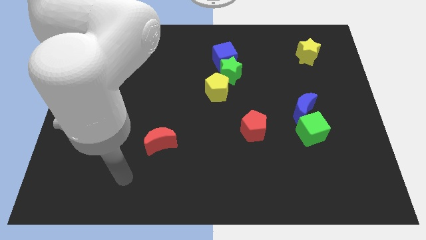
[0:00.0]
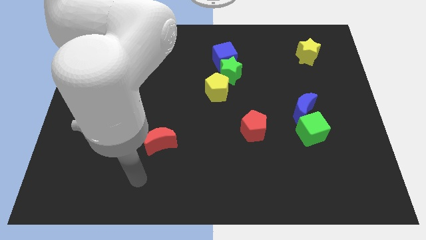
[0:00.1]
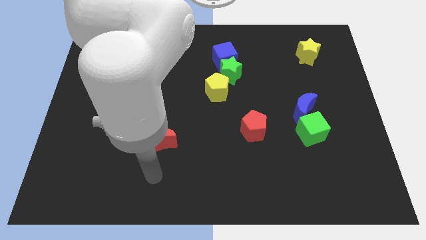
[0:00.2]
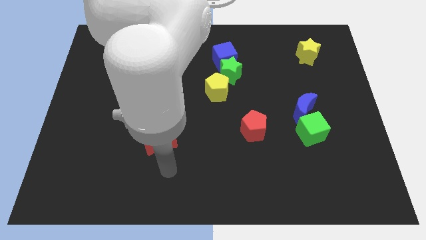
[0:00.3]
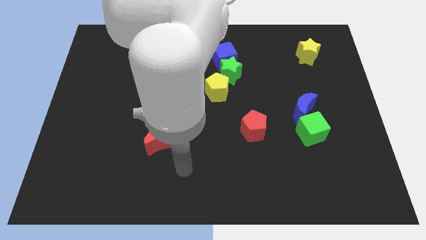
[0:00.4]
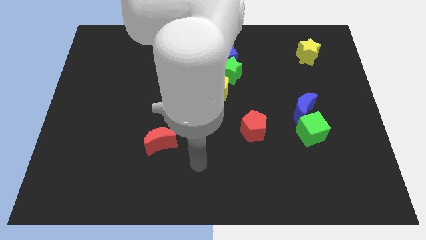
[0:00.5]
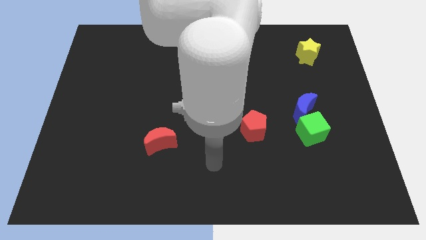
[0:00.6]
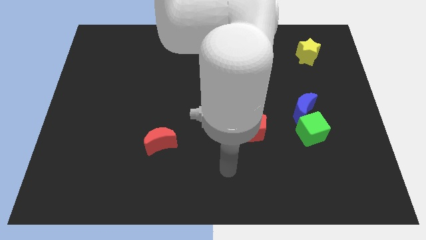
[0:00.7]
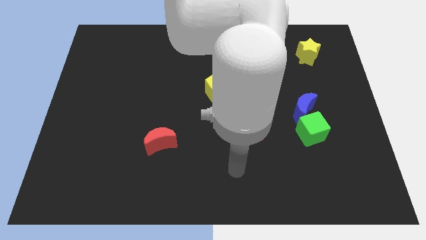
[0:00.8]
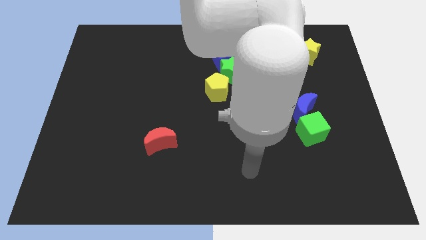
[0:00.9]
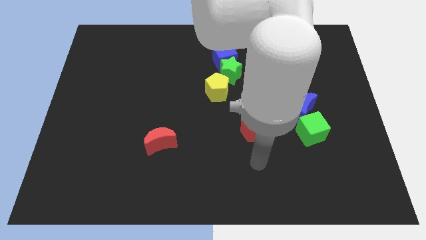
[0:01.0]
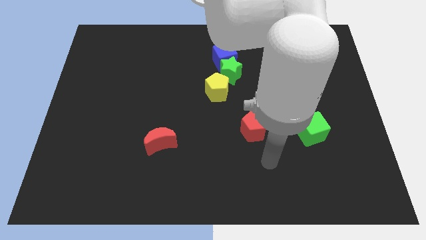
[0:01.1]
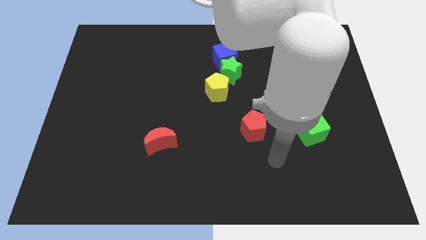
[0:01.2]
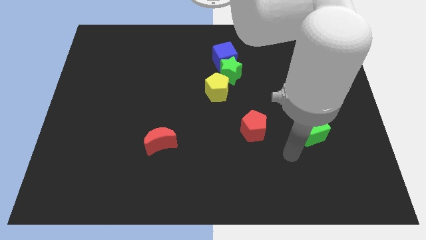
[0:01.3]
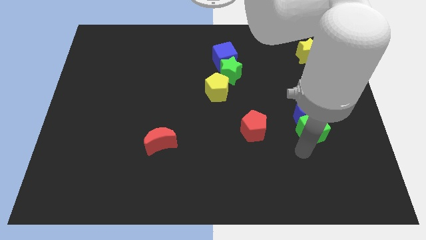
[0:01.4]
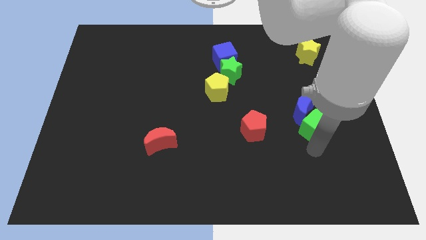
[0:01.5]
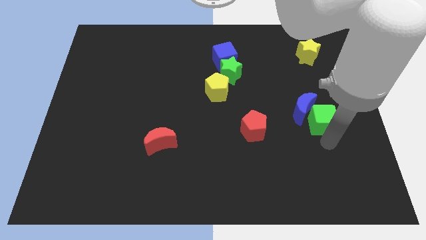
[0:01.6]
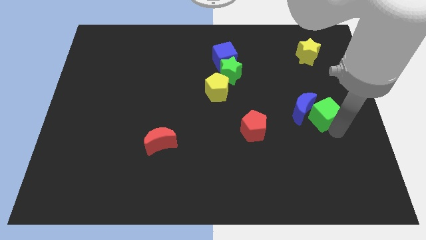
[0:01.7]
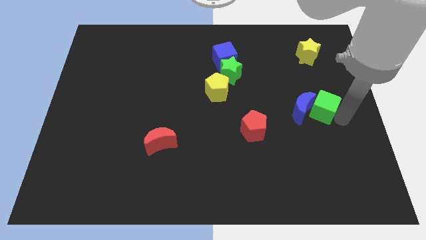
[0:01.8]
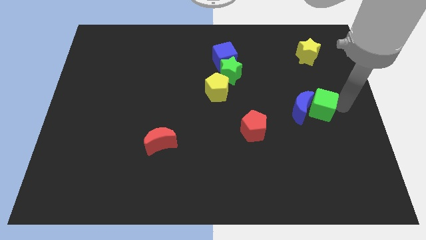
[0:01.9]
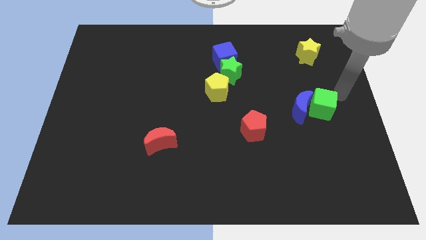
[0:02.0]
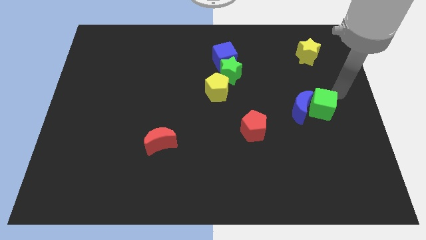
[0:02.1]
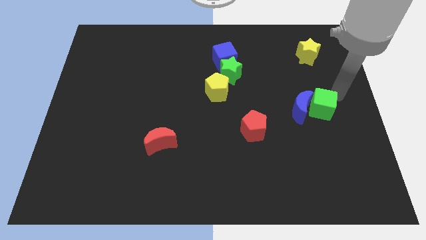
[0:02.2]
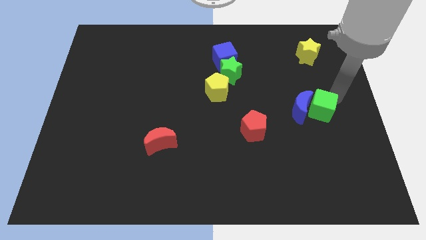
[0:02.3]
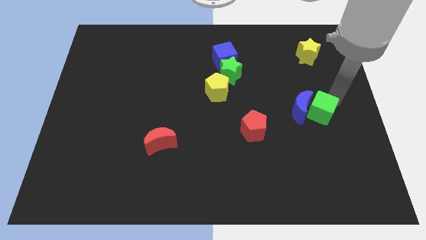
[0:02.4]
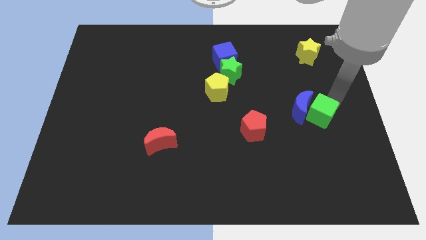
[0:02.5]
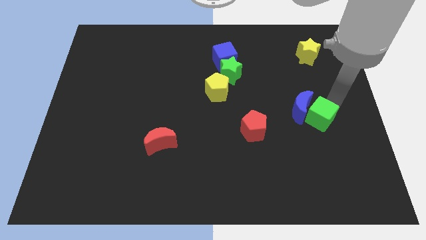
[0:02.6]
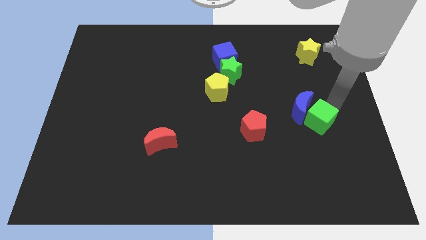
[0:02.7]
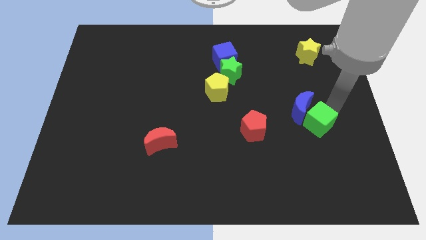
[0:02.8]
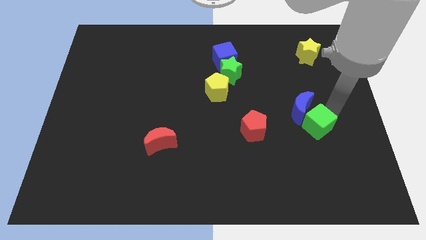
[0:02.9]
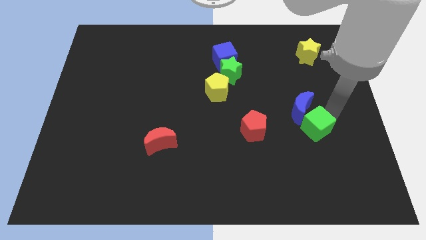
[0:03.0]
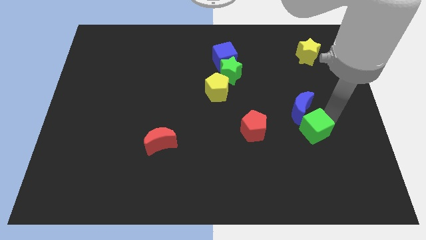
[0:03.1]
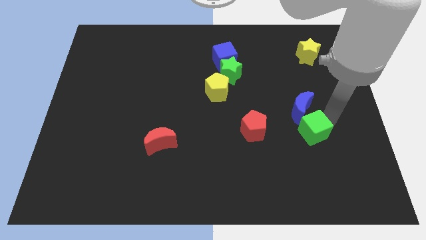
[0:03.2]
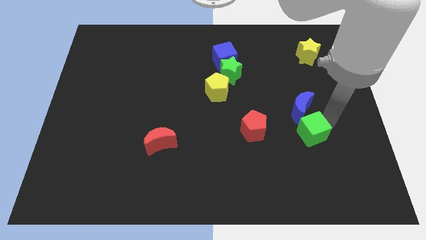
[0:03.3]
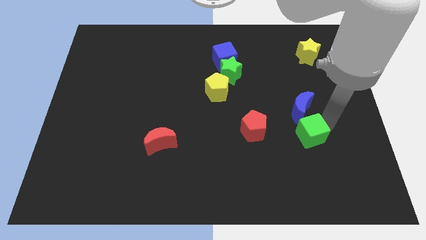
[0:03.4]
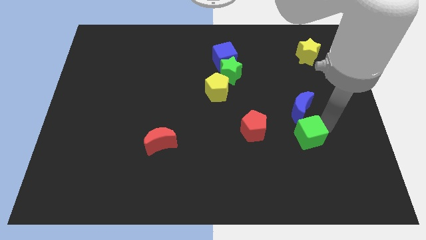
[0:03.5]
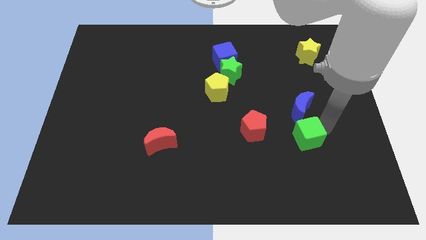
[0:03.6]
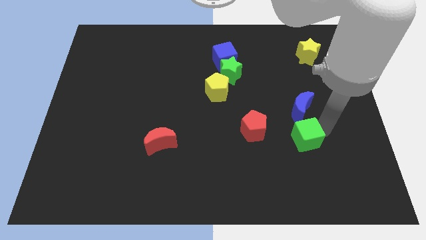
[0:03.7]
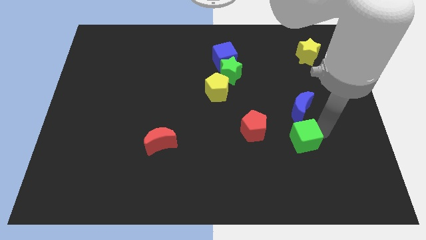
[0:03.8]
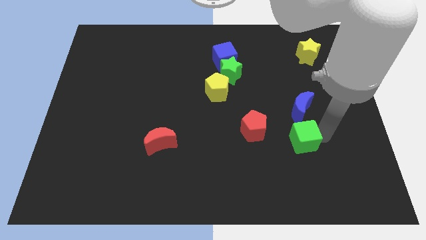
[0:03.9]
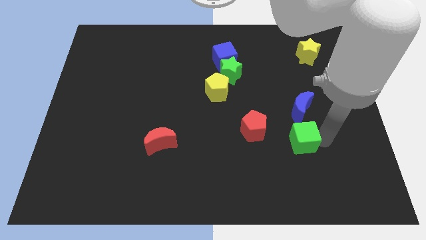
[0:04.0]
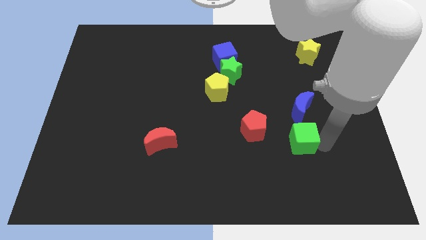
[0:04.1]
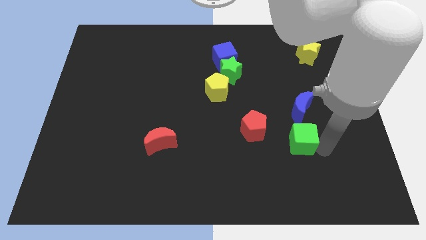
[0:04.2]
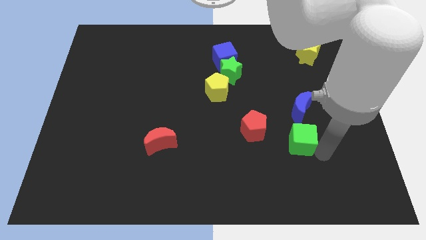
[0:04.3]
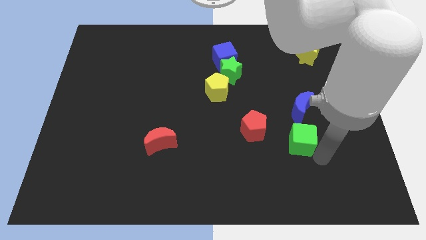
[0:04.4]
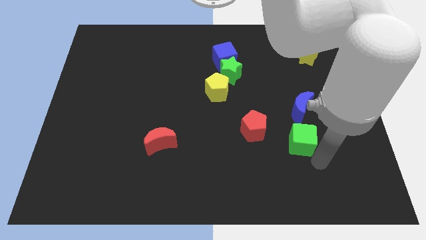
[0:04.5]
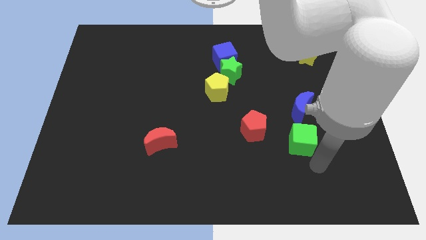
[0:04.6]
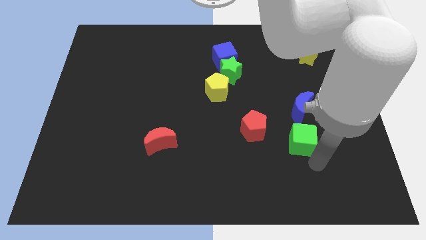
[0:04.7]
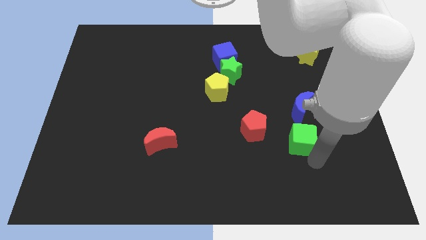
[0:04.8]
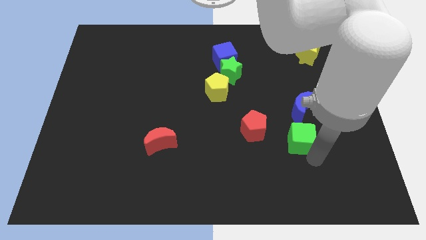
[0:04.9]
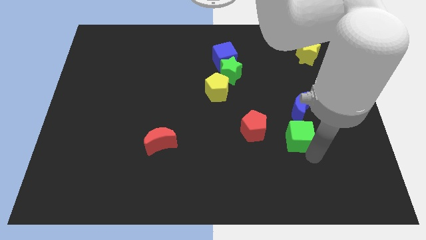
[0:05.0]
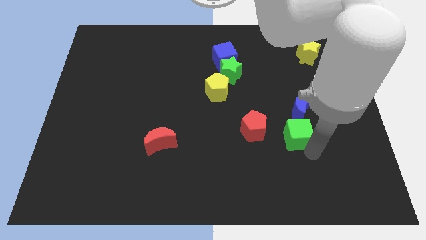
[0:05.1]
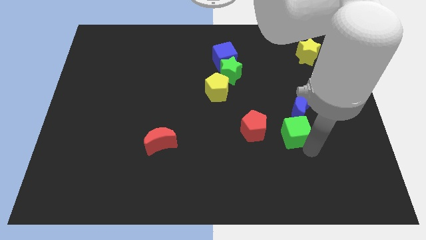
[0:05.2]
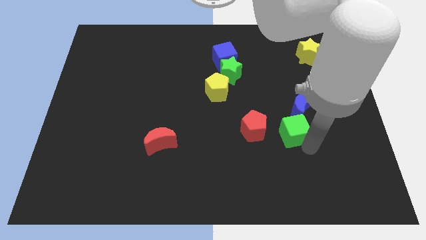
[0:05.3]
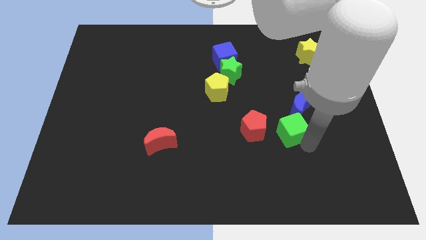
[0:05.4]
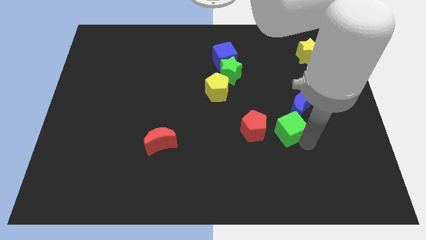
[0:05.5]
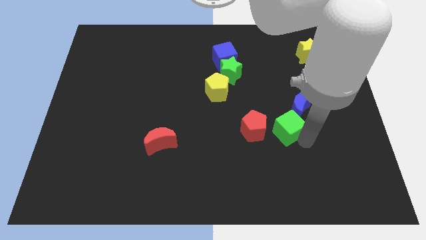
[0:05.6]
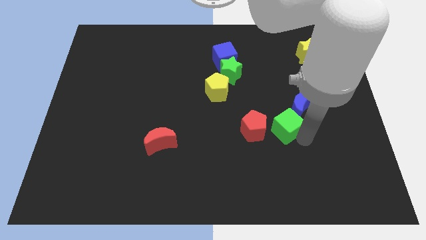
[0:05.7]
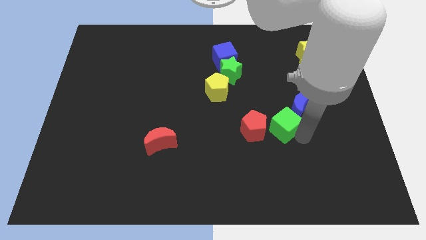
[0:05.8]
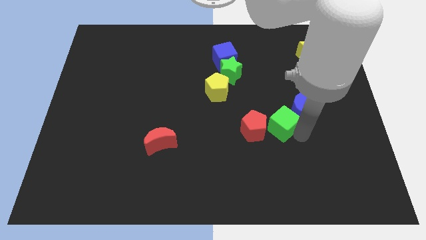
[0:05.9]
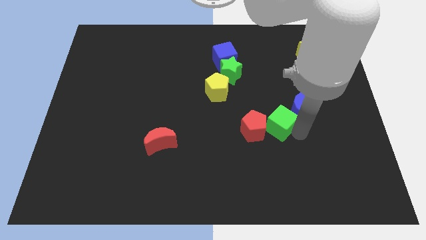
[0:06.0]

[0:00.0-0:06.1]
move the green cube a little left

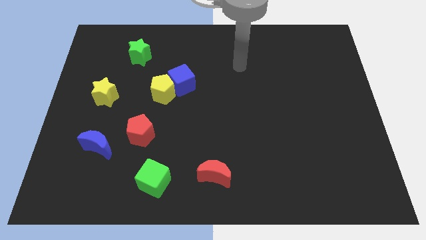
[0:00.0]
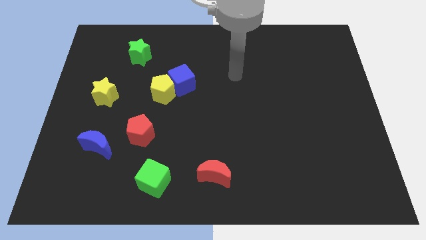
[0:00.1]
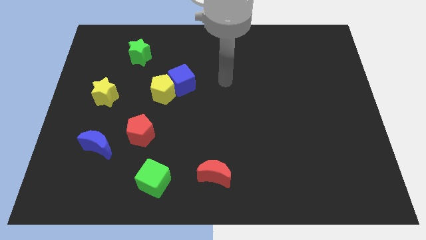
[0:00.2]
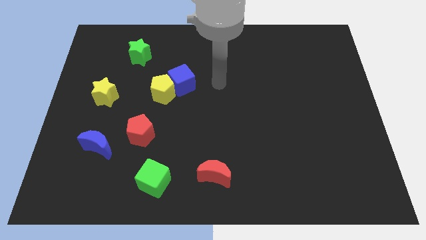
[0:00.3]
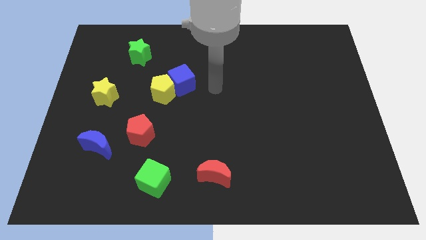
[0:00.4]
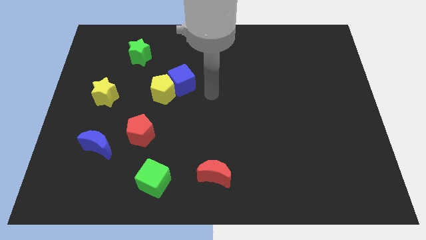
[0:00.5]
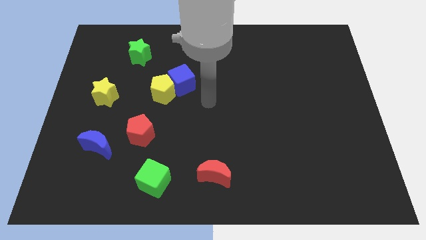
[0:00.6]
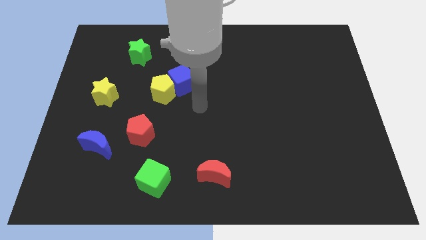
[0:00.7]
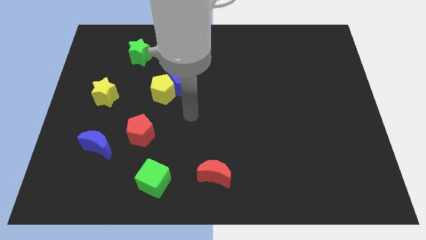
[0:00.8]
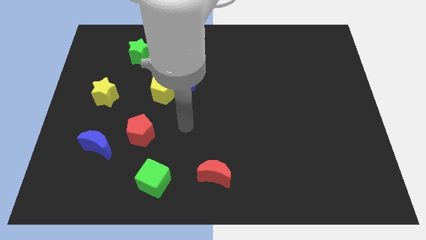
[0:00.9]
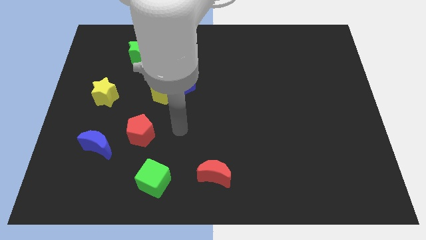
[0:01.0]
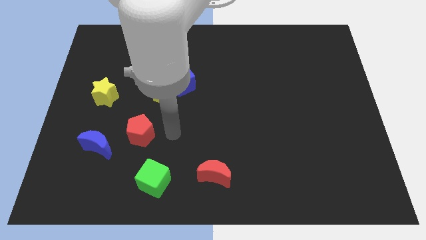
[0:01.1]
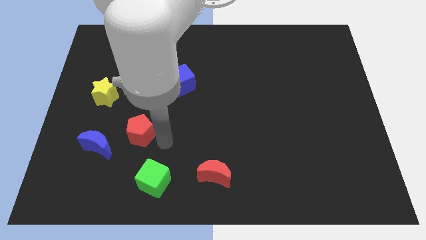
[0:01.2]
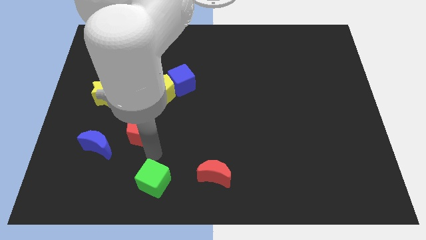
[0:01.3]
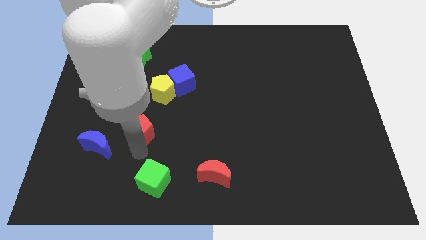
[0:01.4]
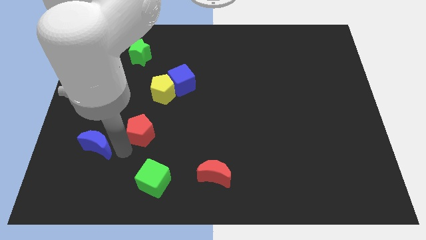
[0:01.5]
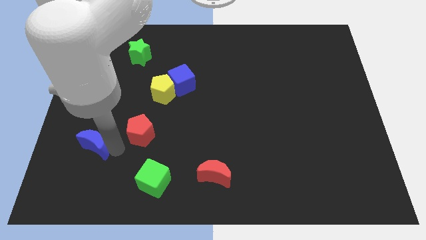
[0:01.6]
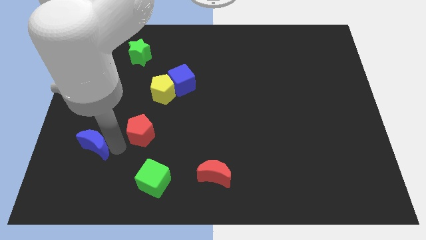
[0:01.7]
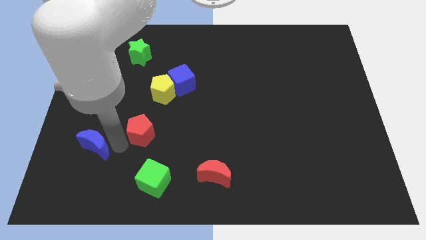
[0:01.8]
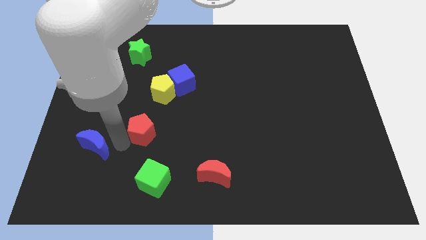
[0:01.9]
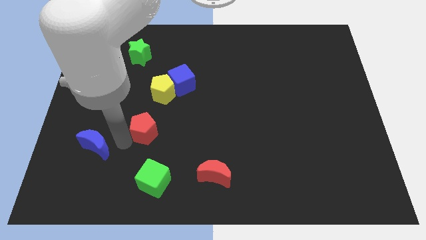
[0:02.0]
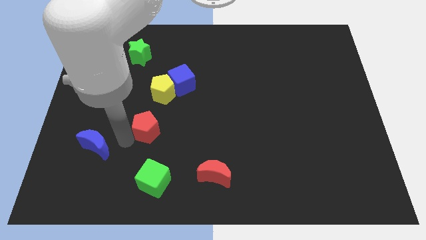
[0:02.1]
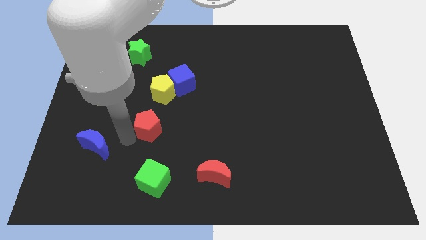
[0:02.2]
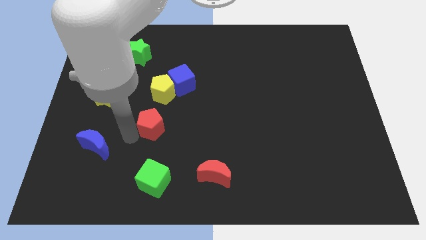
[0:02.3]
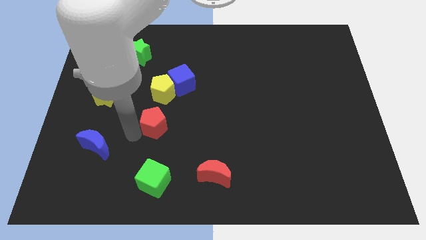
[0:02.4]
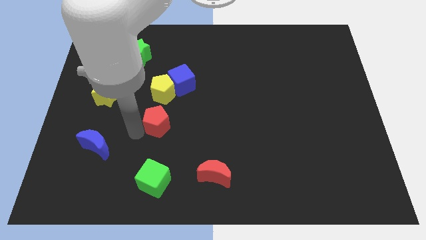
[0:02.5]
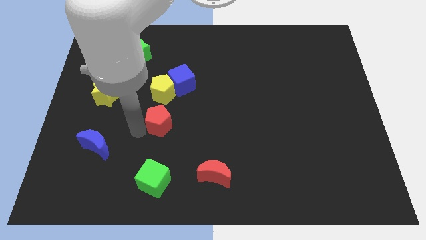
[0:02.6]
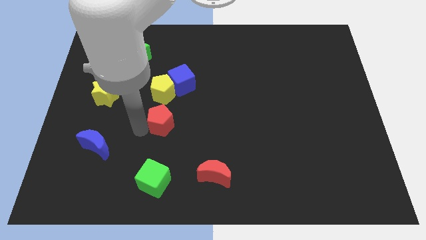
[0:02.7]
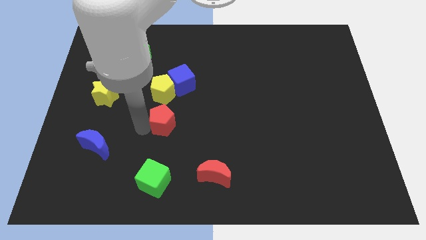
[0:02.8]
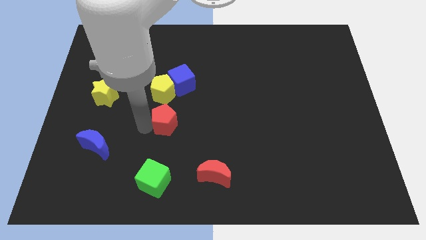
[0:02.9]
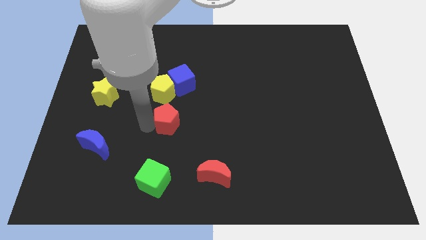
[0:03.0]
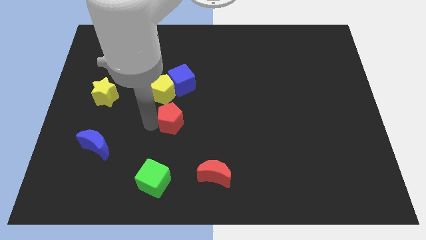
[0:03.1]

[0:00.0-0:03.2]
push the red pentagon upwards and right somewhat
